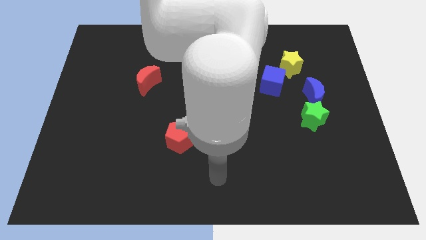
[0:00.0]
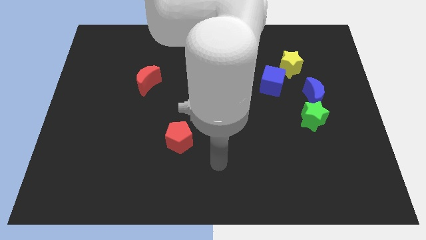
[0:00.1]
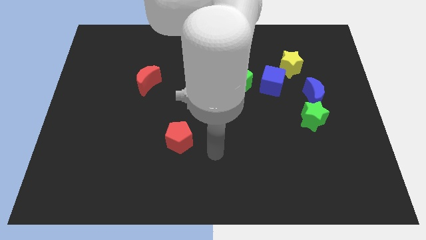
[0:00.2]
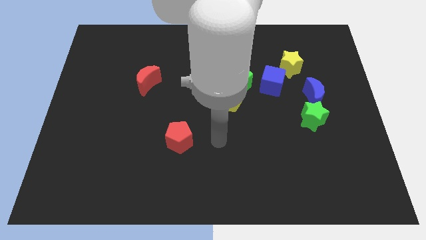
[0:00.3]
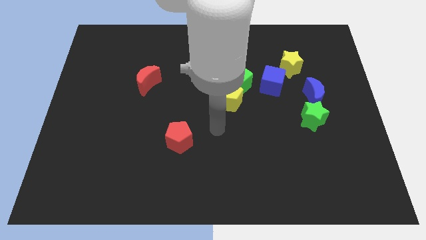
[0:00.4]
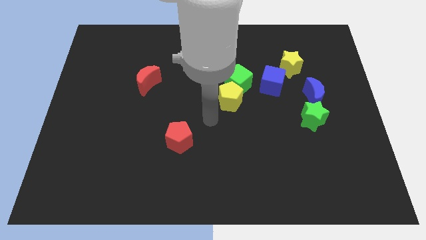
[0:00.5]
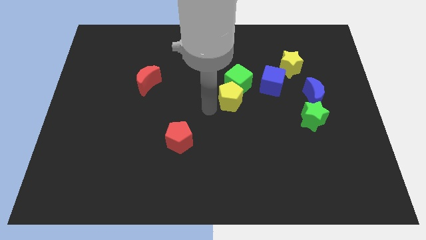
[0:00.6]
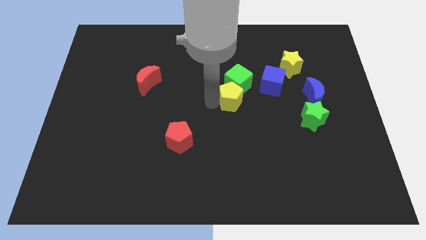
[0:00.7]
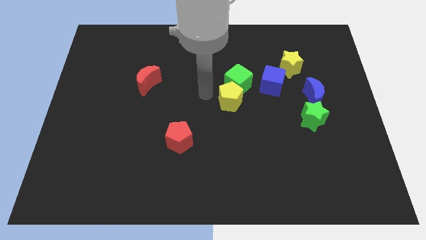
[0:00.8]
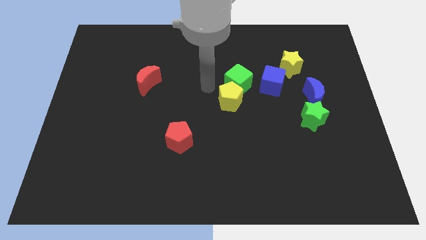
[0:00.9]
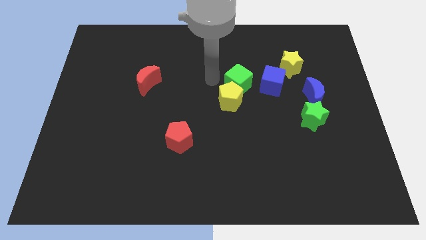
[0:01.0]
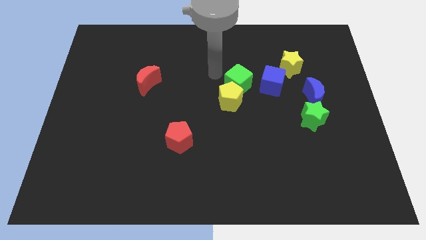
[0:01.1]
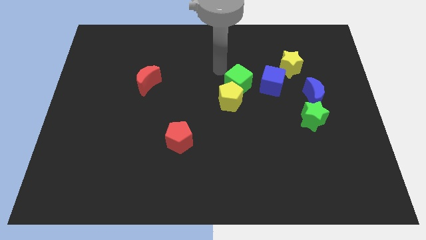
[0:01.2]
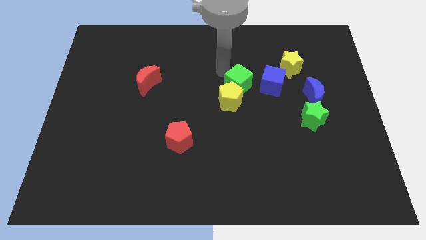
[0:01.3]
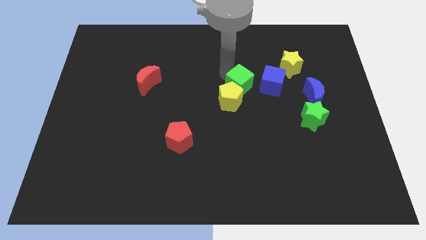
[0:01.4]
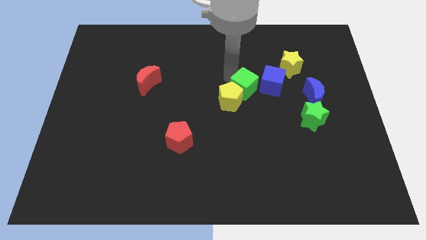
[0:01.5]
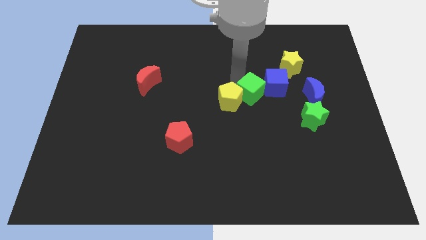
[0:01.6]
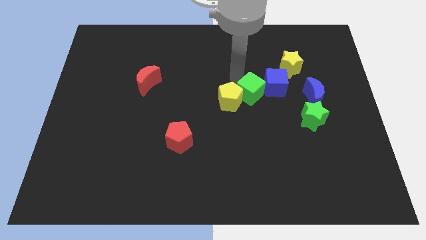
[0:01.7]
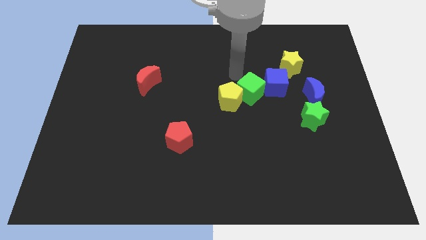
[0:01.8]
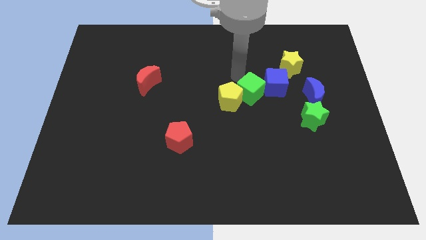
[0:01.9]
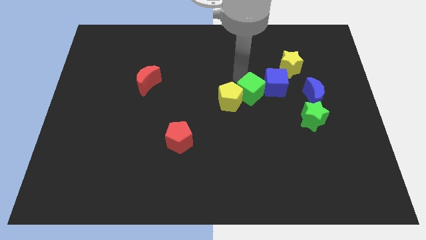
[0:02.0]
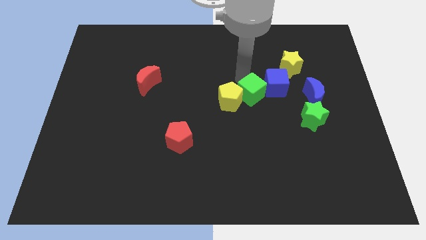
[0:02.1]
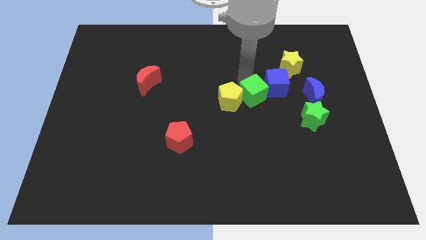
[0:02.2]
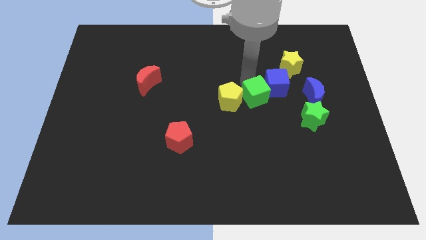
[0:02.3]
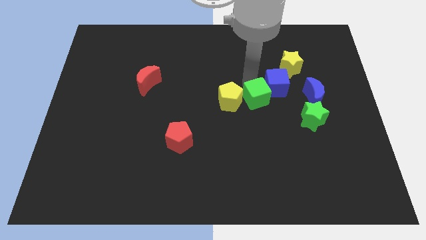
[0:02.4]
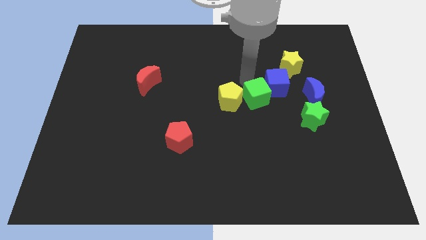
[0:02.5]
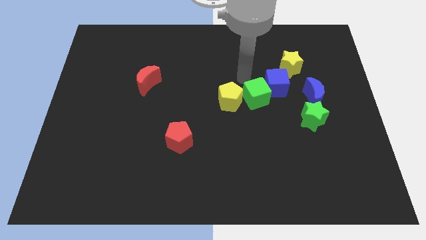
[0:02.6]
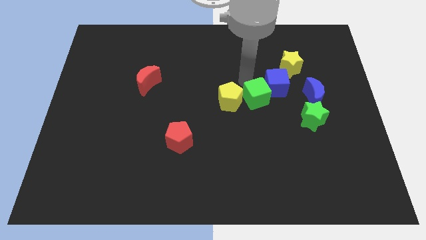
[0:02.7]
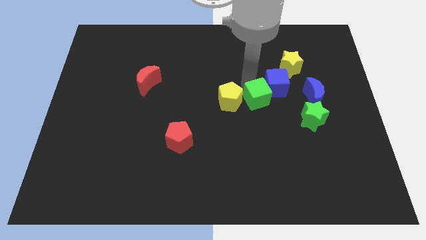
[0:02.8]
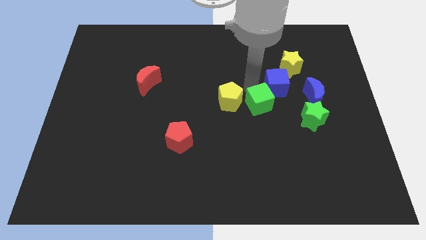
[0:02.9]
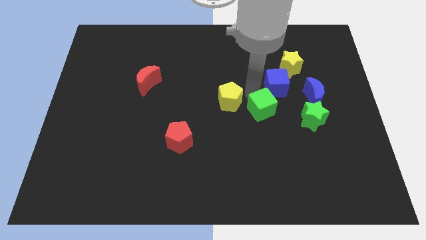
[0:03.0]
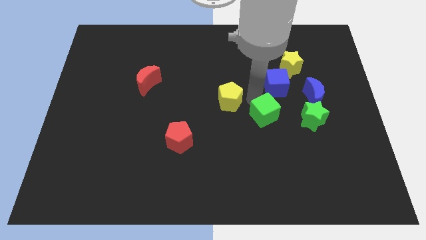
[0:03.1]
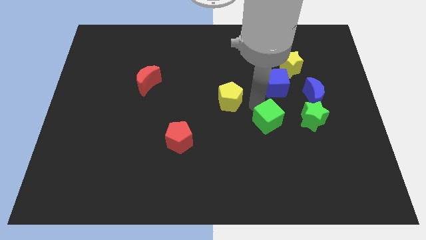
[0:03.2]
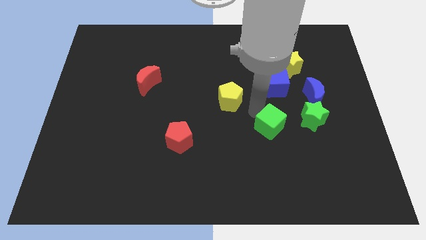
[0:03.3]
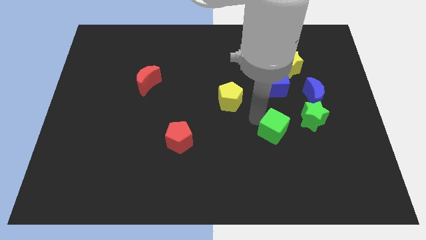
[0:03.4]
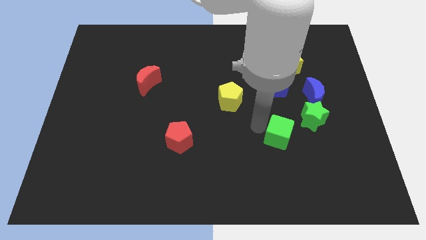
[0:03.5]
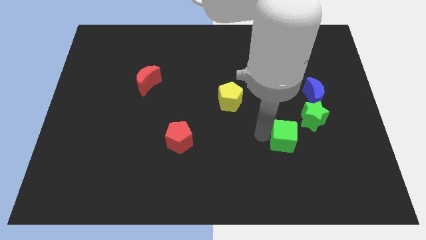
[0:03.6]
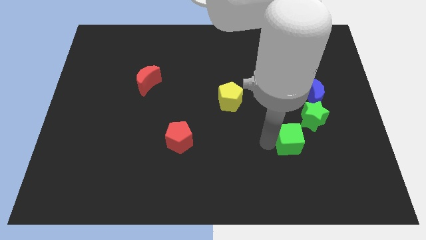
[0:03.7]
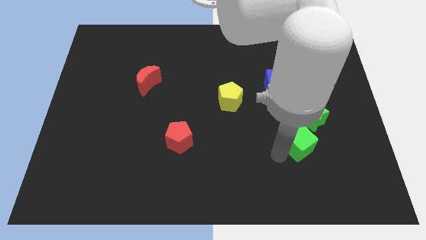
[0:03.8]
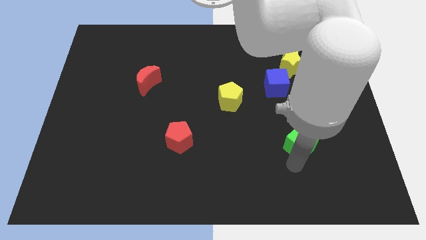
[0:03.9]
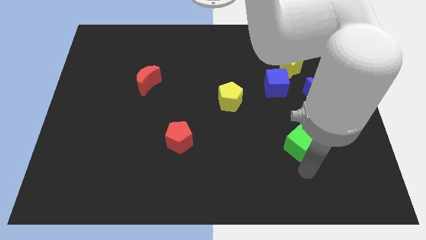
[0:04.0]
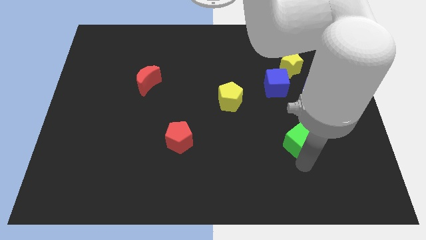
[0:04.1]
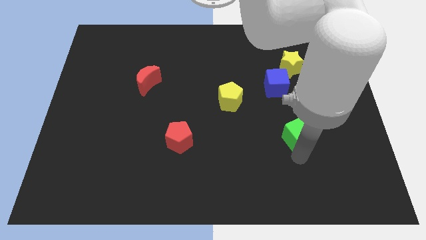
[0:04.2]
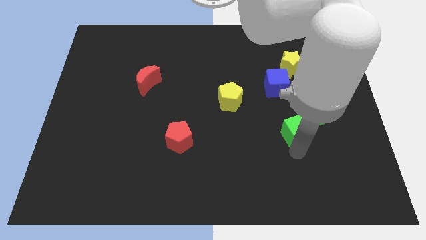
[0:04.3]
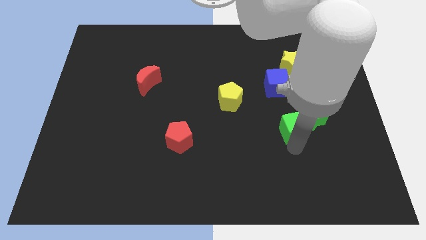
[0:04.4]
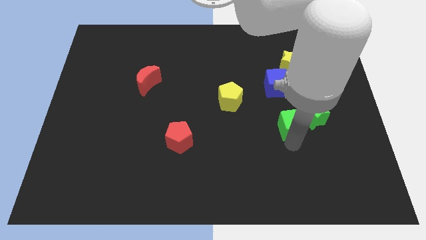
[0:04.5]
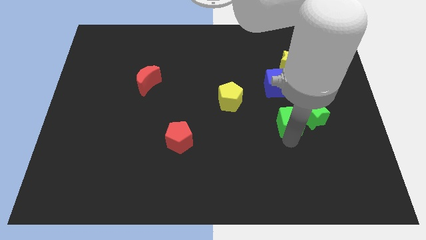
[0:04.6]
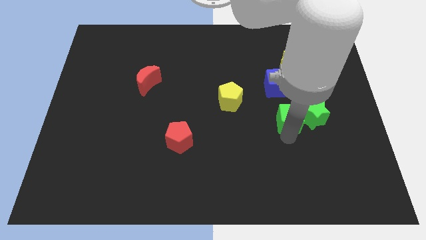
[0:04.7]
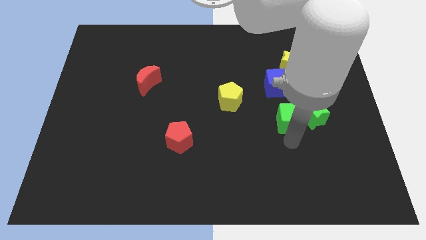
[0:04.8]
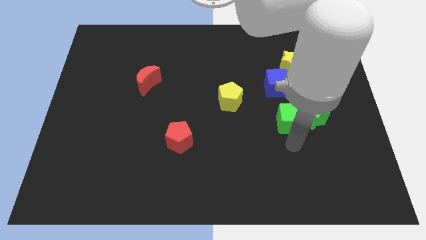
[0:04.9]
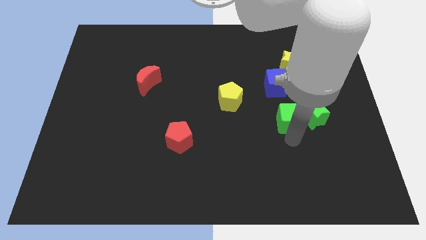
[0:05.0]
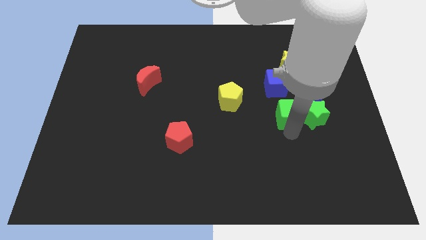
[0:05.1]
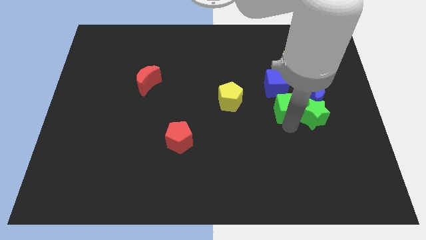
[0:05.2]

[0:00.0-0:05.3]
push the green cube a bit to the right

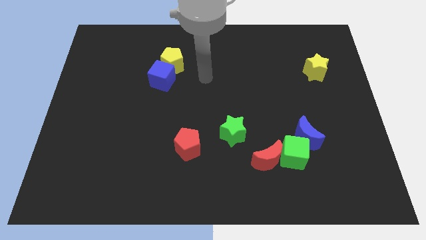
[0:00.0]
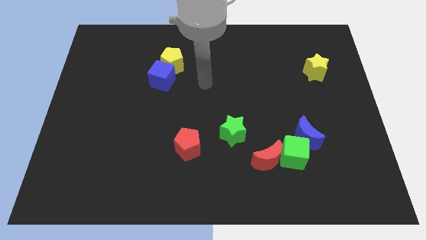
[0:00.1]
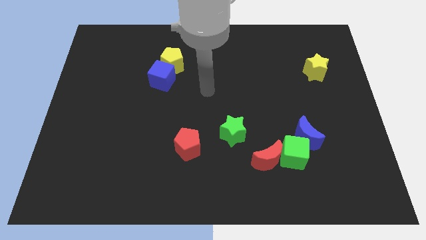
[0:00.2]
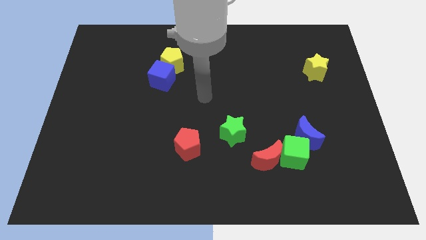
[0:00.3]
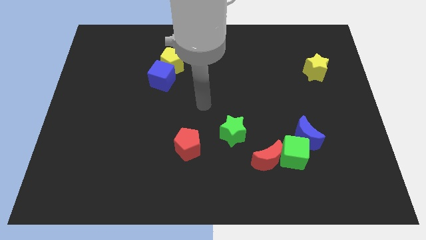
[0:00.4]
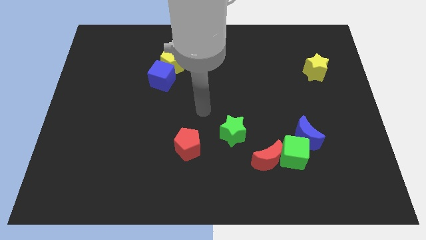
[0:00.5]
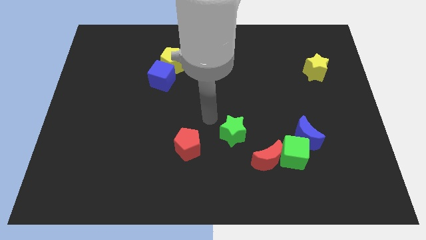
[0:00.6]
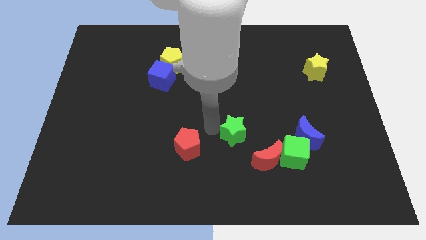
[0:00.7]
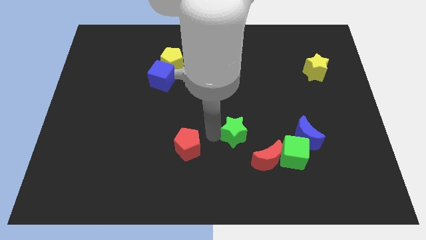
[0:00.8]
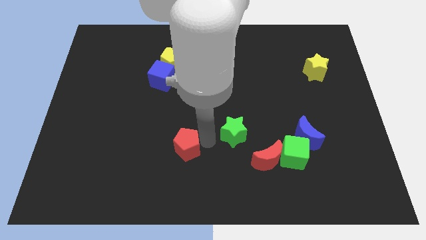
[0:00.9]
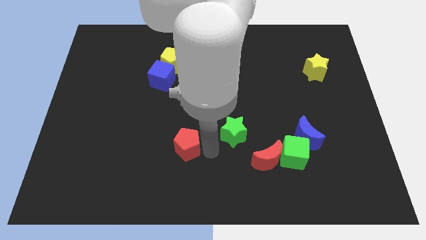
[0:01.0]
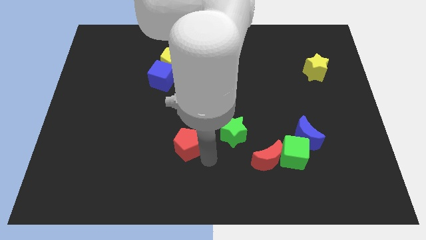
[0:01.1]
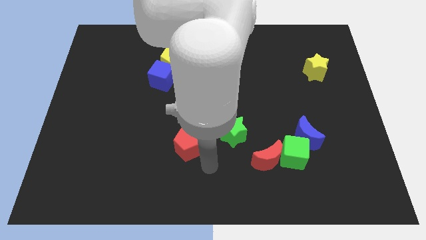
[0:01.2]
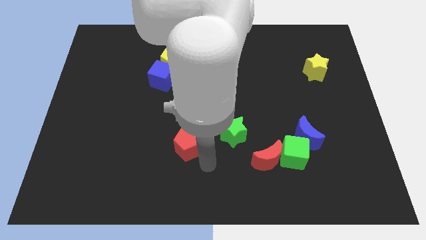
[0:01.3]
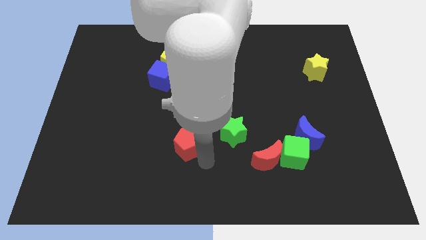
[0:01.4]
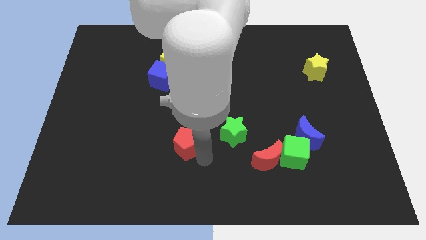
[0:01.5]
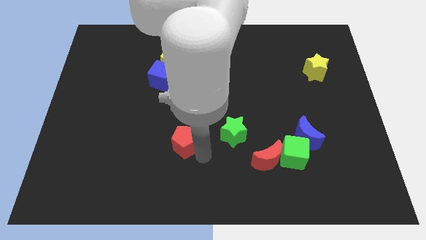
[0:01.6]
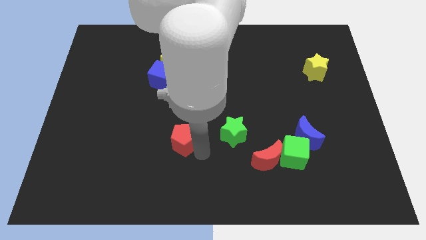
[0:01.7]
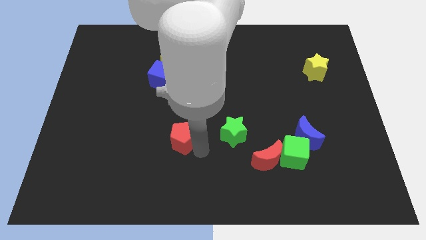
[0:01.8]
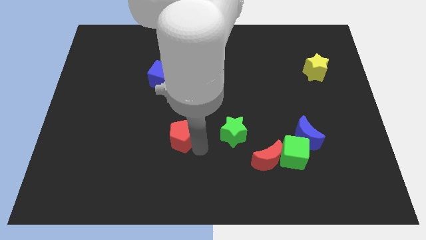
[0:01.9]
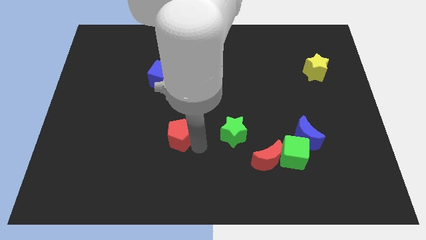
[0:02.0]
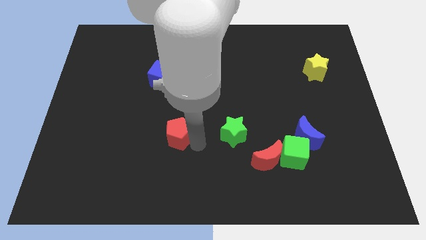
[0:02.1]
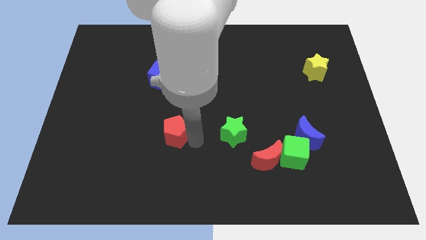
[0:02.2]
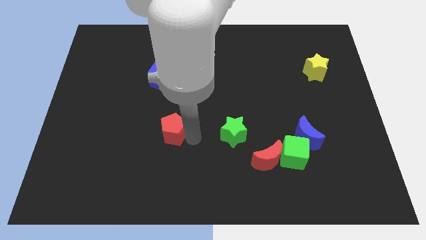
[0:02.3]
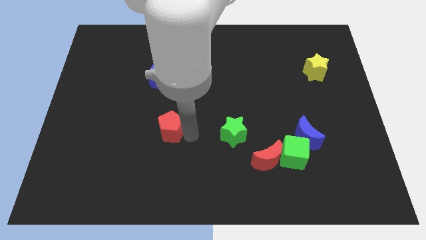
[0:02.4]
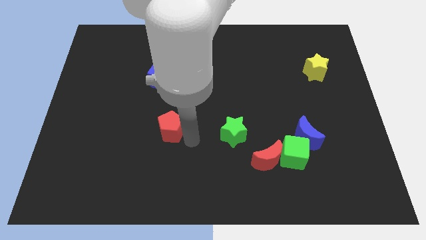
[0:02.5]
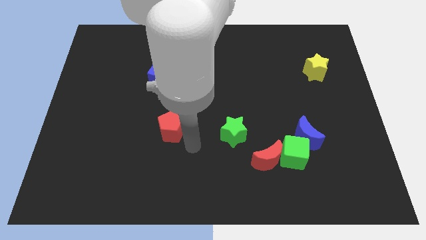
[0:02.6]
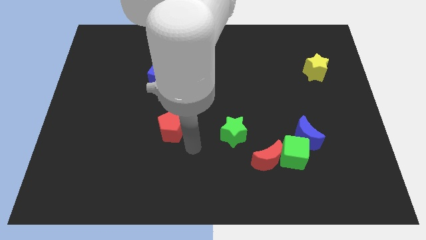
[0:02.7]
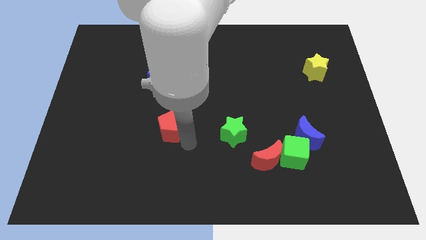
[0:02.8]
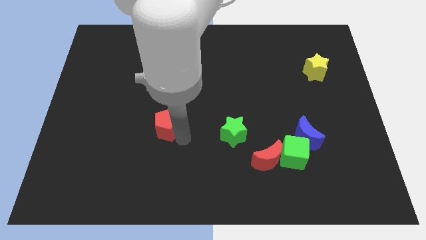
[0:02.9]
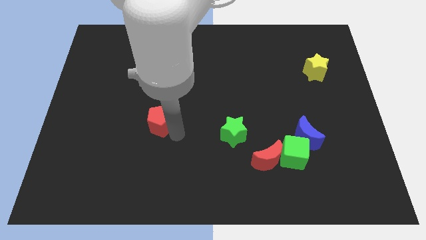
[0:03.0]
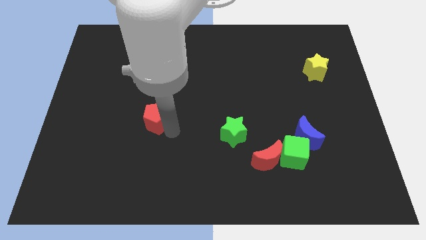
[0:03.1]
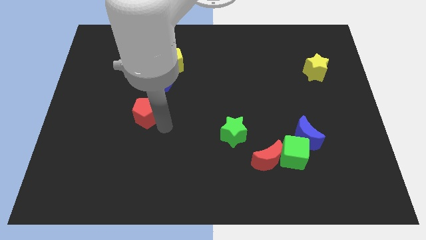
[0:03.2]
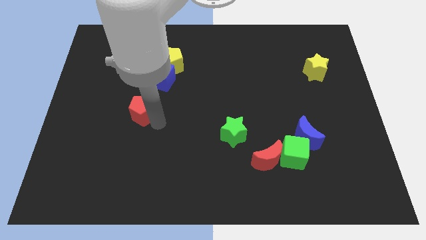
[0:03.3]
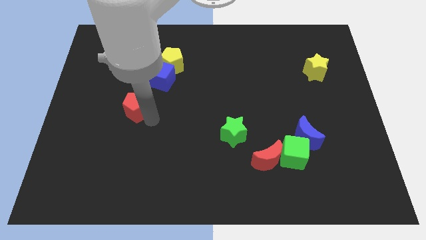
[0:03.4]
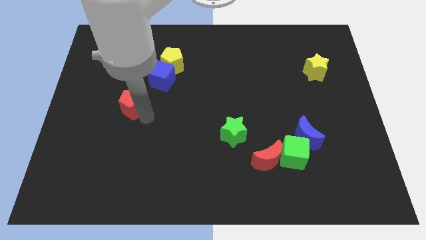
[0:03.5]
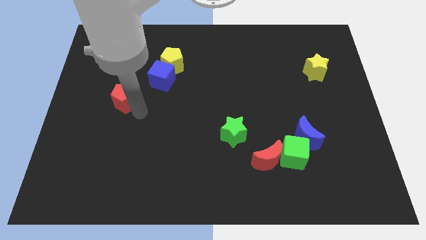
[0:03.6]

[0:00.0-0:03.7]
move the red pentagon upwards and to the left
